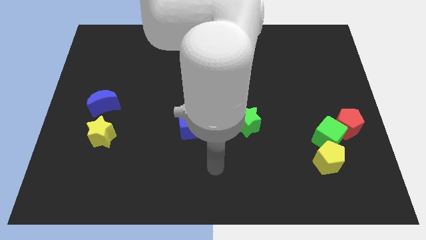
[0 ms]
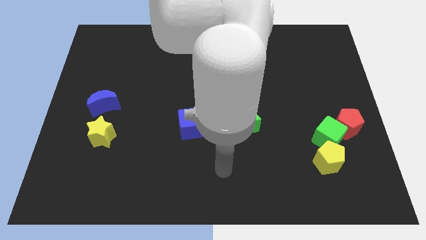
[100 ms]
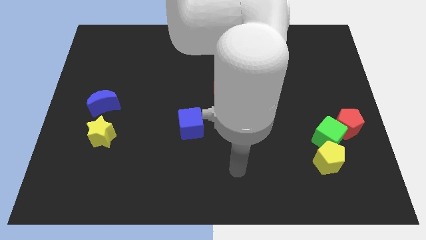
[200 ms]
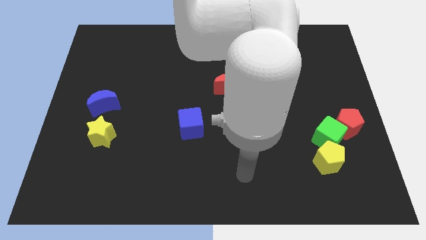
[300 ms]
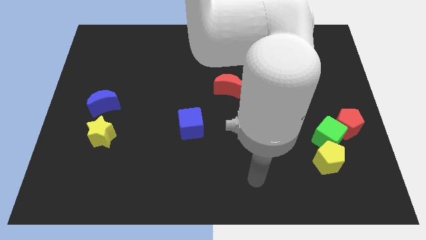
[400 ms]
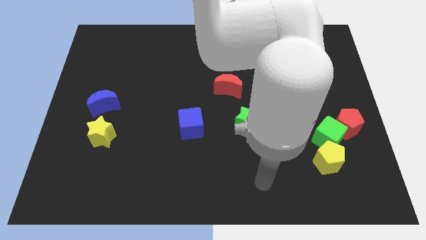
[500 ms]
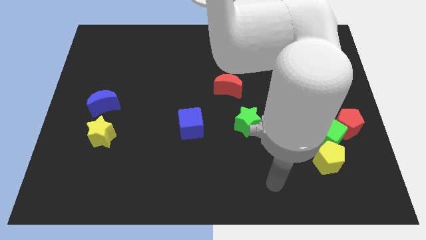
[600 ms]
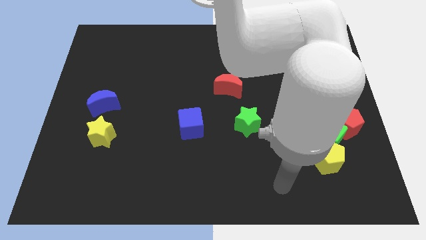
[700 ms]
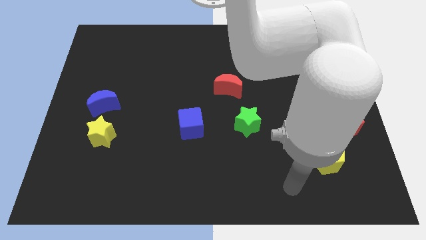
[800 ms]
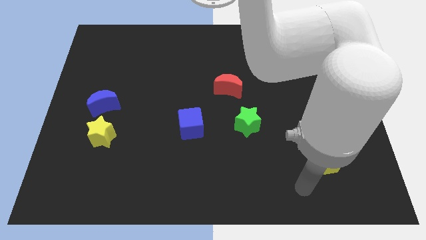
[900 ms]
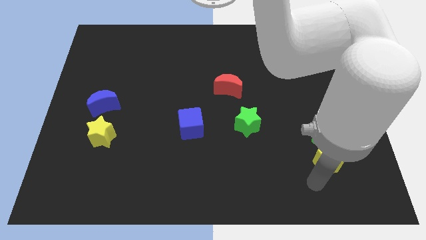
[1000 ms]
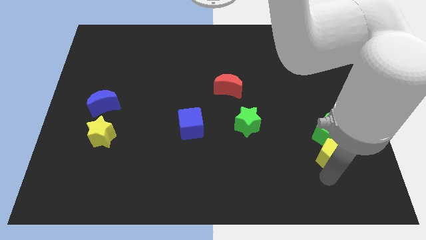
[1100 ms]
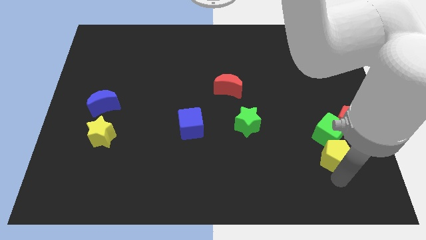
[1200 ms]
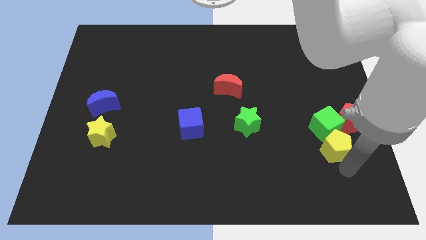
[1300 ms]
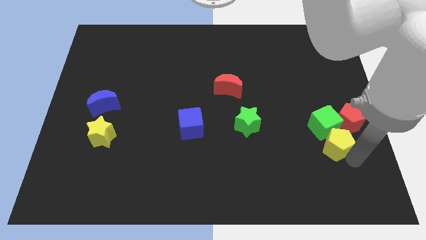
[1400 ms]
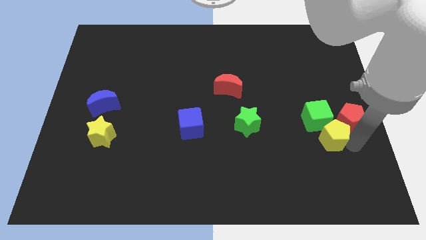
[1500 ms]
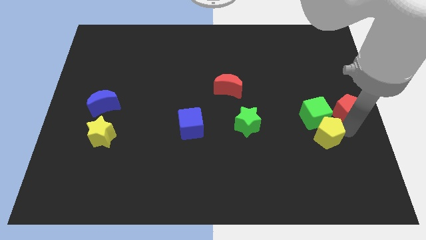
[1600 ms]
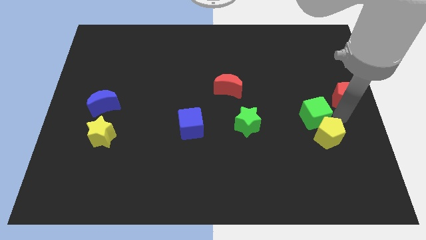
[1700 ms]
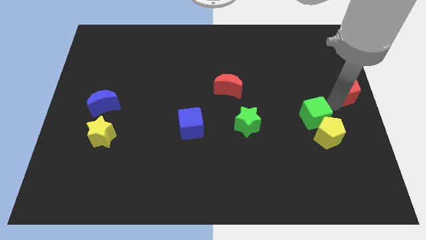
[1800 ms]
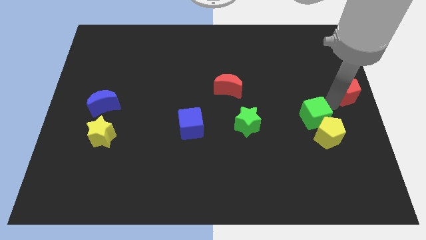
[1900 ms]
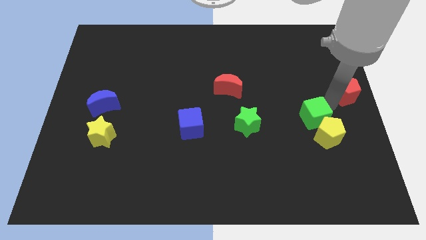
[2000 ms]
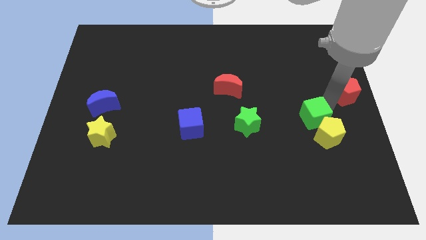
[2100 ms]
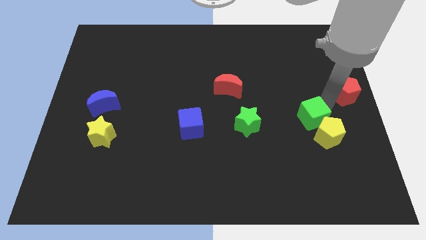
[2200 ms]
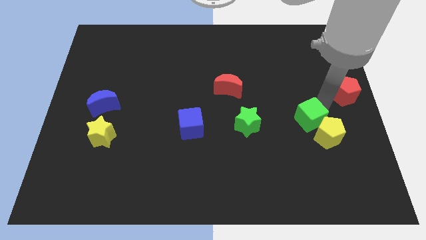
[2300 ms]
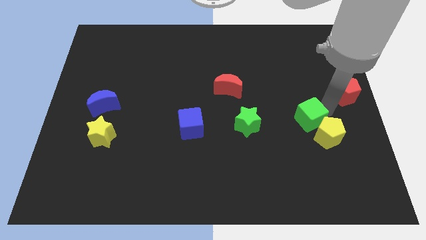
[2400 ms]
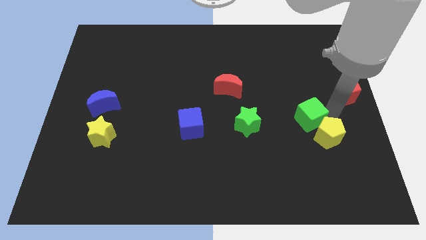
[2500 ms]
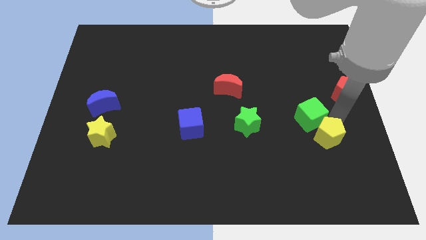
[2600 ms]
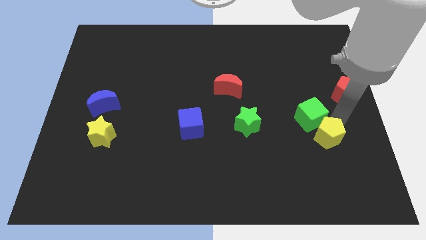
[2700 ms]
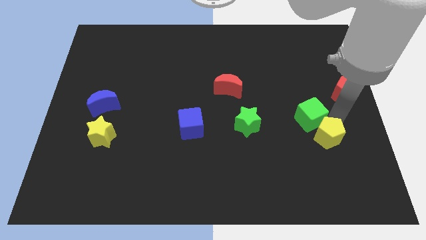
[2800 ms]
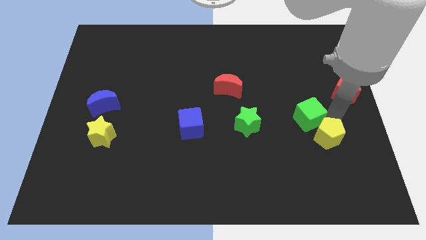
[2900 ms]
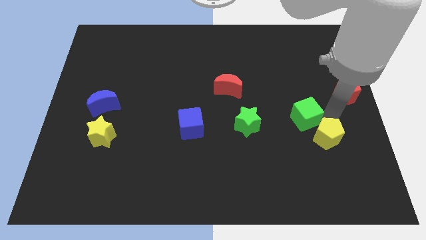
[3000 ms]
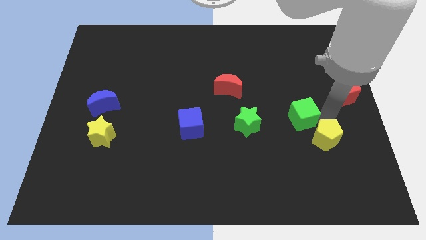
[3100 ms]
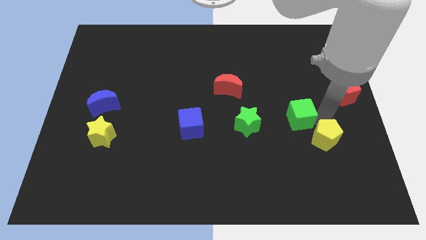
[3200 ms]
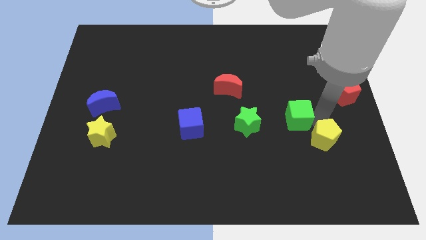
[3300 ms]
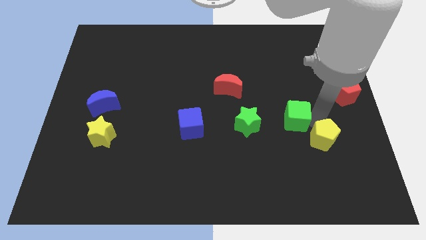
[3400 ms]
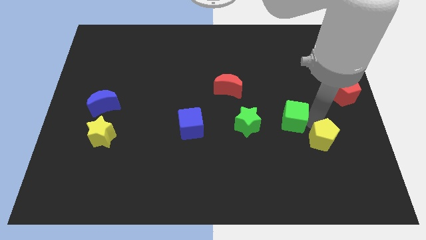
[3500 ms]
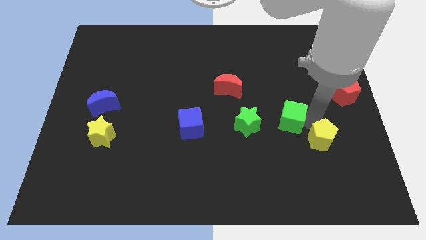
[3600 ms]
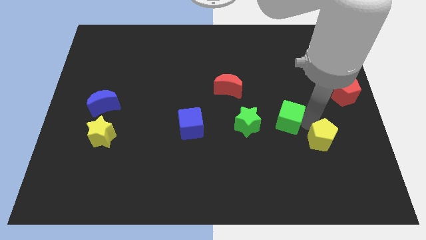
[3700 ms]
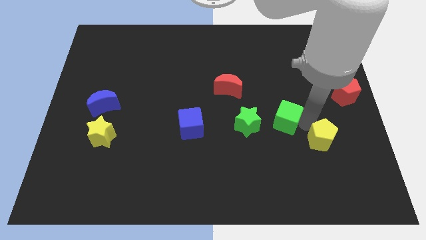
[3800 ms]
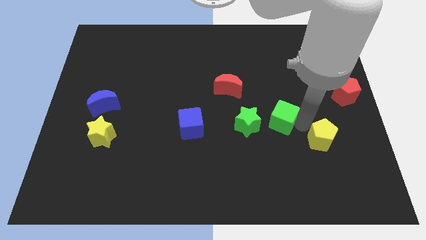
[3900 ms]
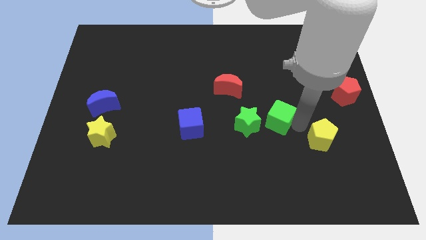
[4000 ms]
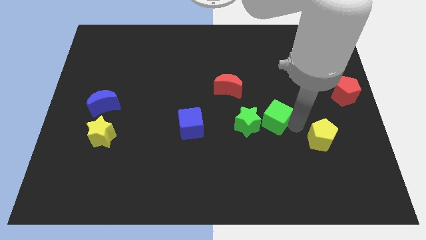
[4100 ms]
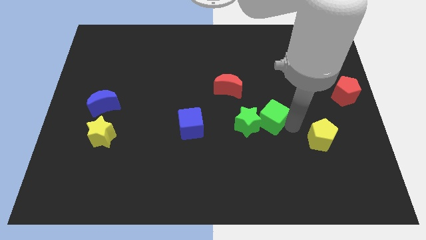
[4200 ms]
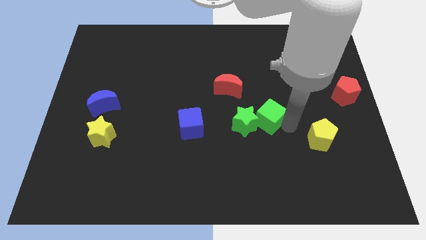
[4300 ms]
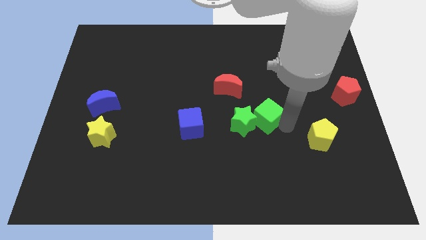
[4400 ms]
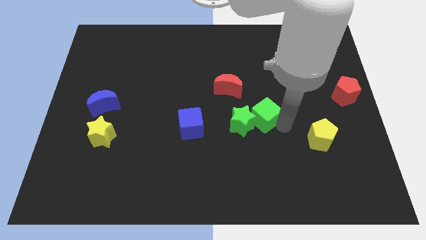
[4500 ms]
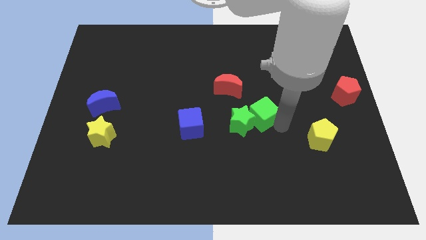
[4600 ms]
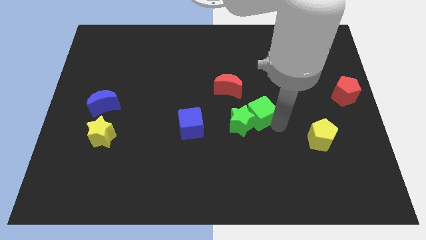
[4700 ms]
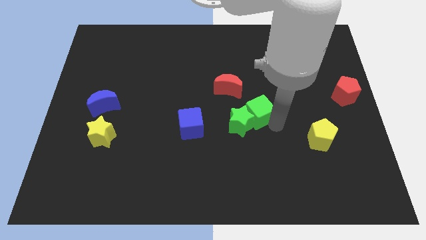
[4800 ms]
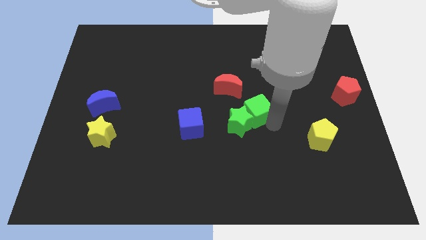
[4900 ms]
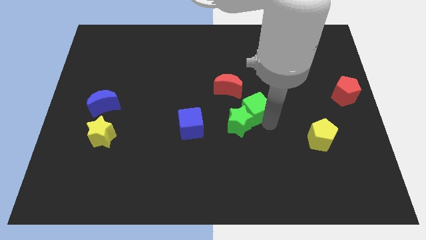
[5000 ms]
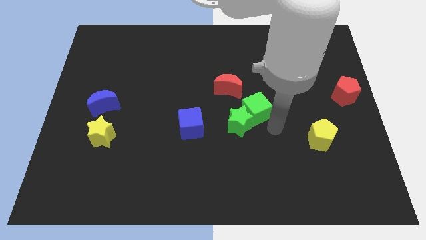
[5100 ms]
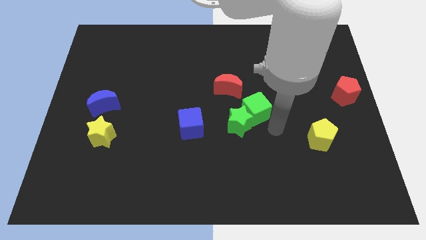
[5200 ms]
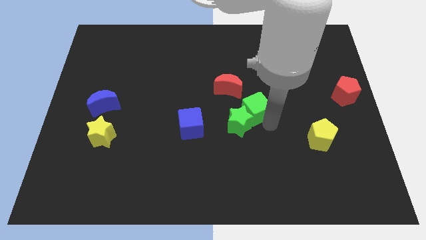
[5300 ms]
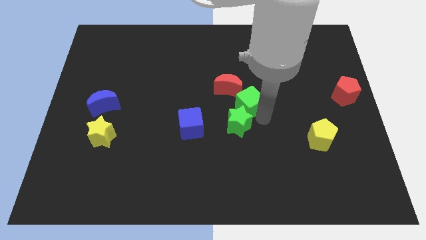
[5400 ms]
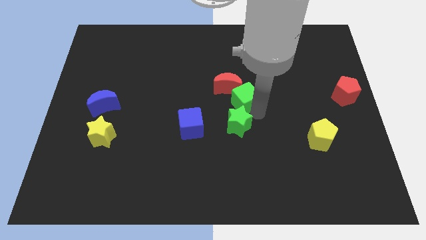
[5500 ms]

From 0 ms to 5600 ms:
put the green cube towards the red moon

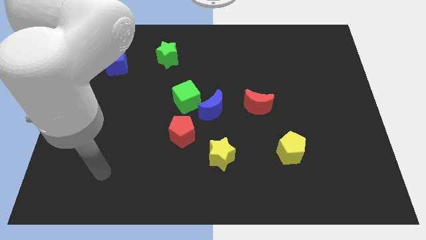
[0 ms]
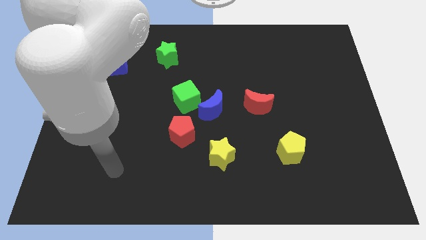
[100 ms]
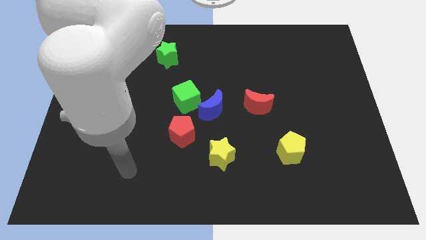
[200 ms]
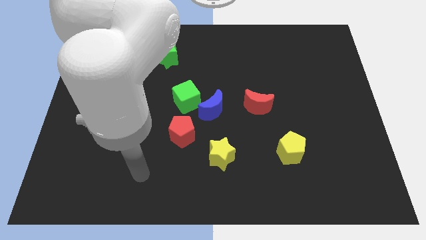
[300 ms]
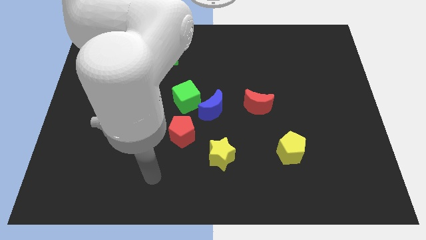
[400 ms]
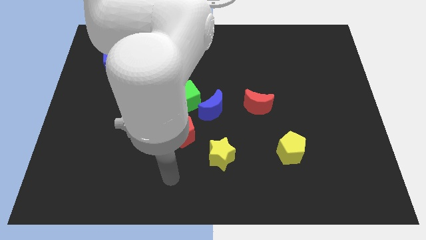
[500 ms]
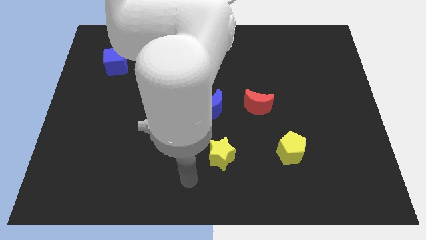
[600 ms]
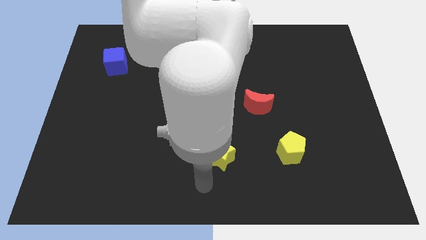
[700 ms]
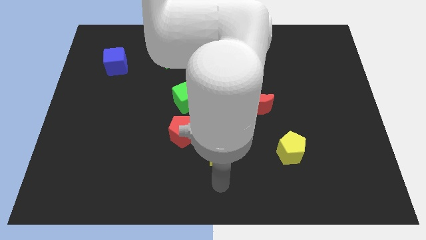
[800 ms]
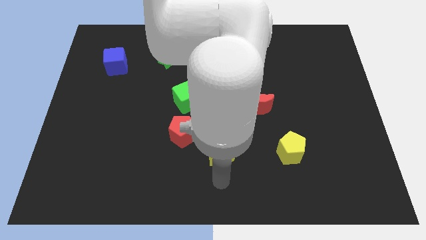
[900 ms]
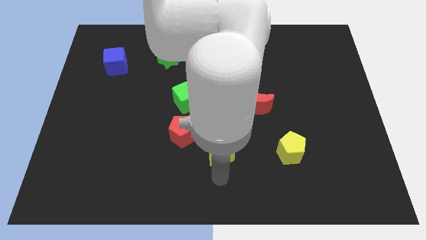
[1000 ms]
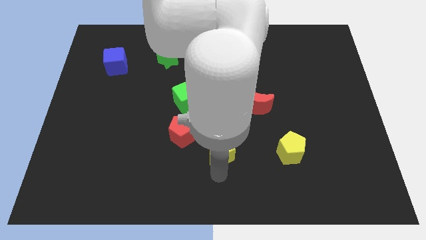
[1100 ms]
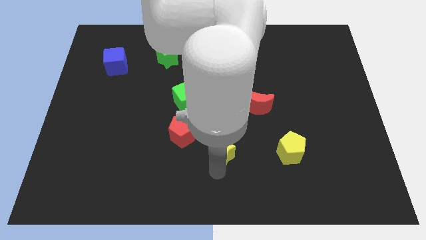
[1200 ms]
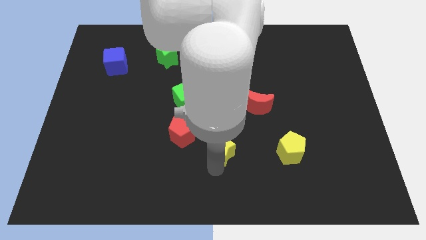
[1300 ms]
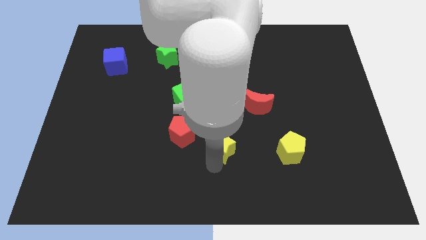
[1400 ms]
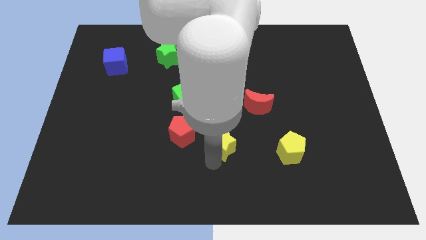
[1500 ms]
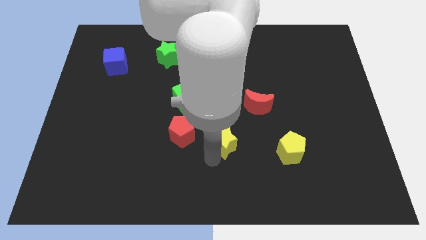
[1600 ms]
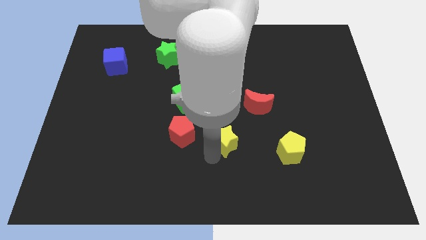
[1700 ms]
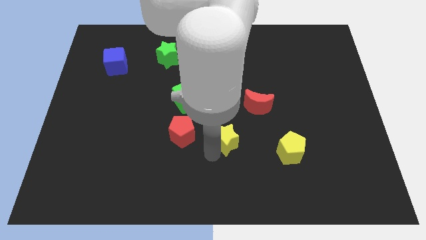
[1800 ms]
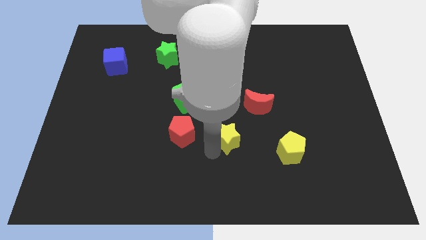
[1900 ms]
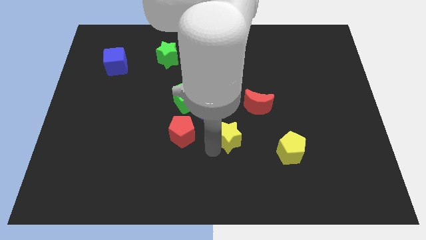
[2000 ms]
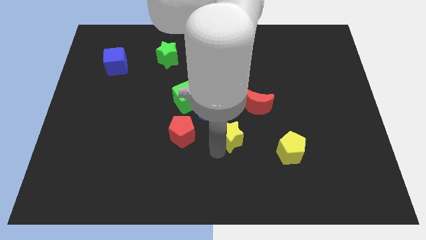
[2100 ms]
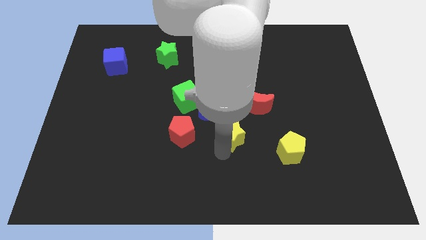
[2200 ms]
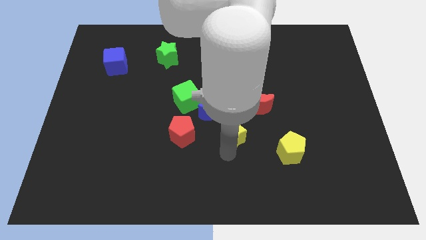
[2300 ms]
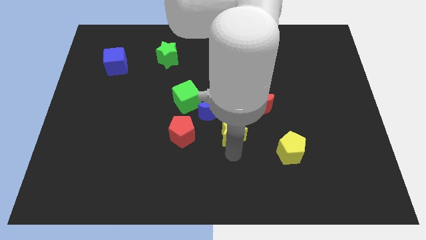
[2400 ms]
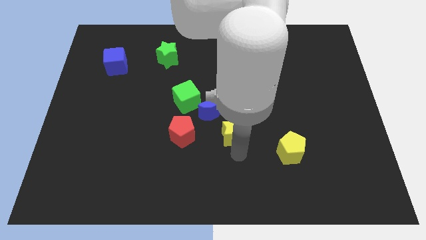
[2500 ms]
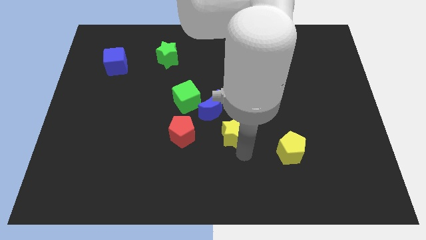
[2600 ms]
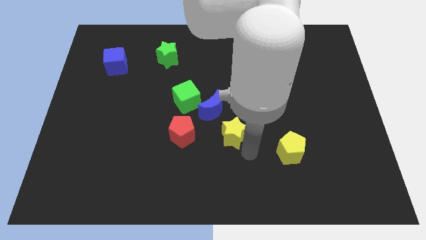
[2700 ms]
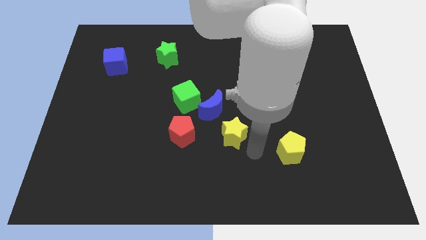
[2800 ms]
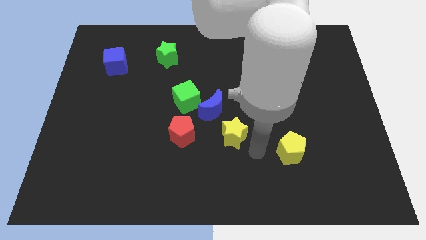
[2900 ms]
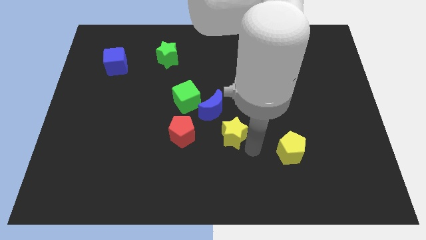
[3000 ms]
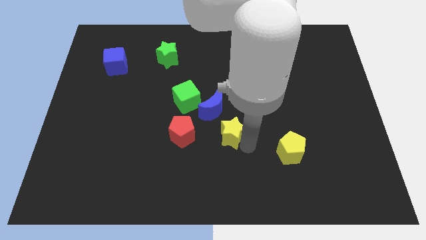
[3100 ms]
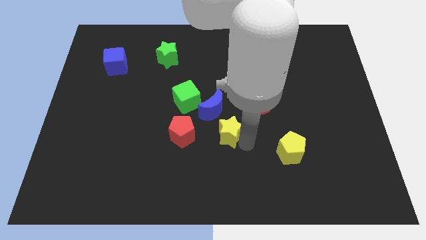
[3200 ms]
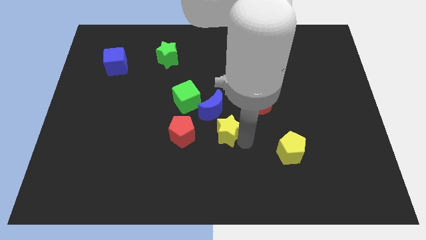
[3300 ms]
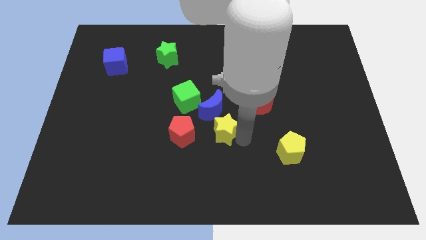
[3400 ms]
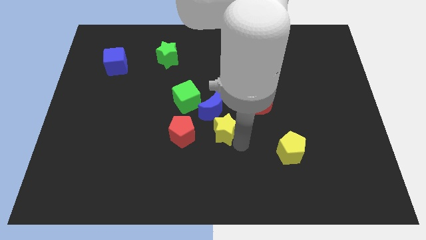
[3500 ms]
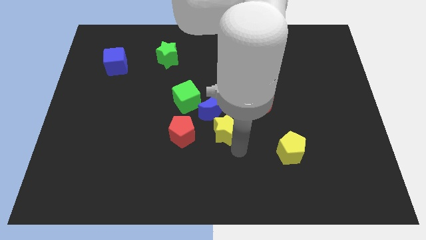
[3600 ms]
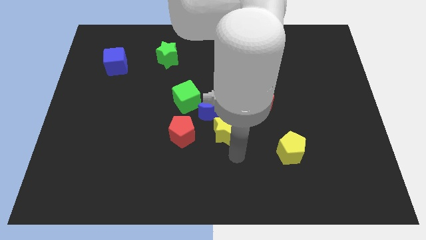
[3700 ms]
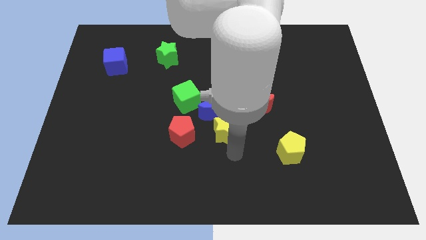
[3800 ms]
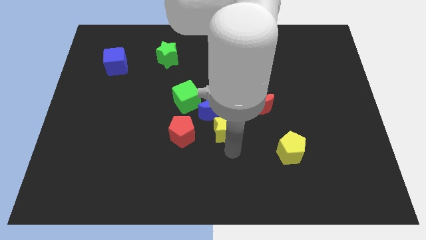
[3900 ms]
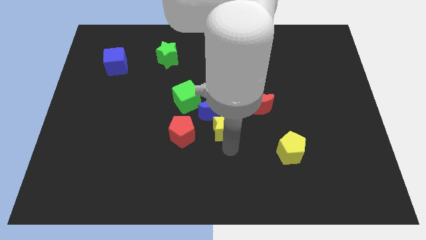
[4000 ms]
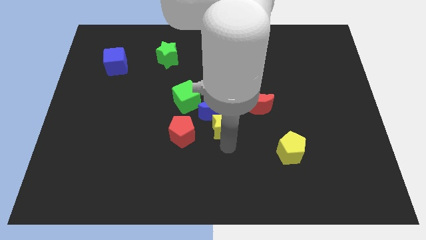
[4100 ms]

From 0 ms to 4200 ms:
put the yellow star to the blue moon
